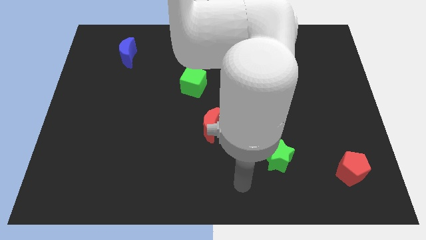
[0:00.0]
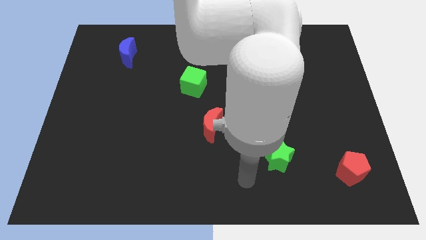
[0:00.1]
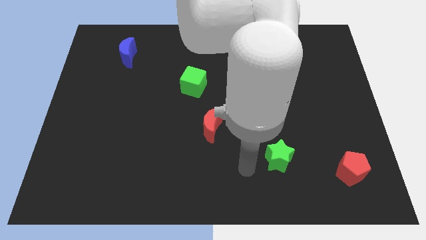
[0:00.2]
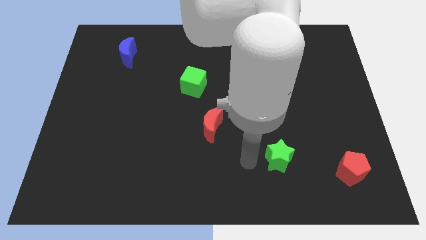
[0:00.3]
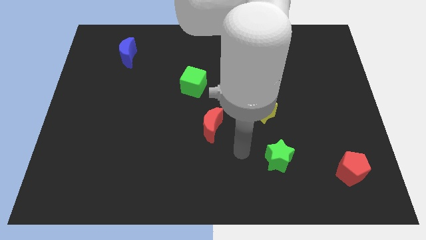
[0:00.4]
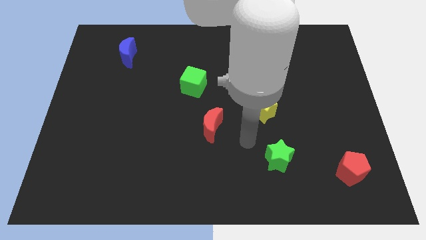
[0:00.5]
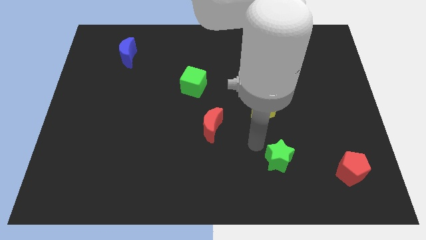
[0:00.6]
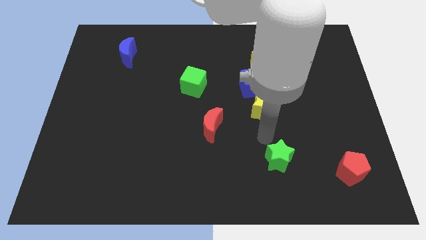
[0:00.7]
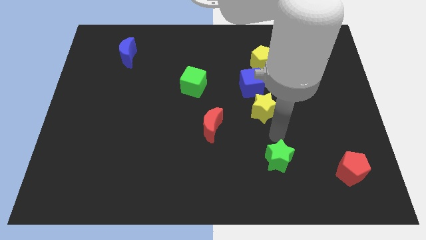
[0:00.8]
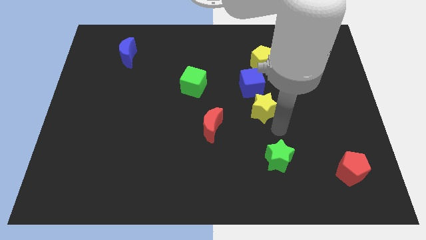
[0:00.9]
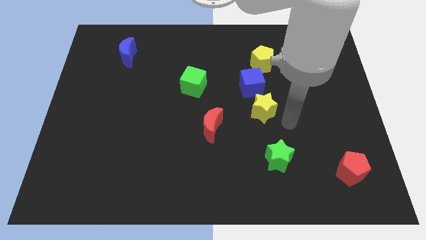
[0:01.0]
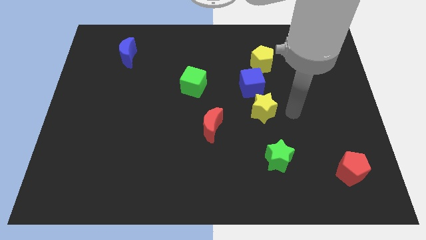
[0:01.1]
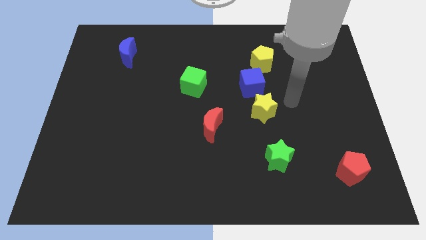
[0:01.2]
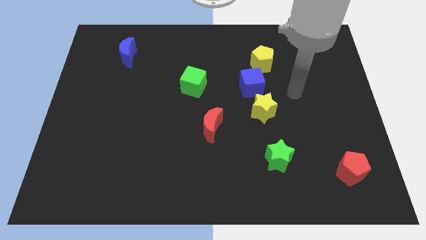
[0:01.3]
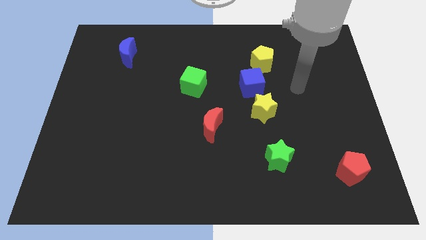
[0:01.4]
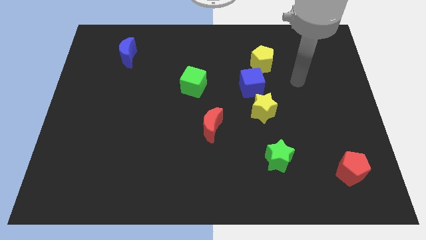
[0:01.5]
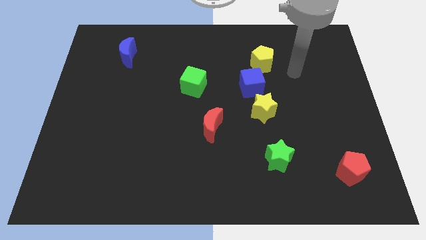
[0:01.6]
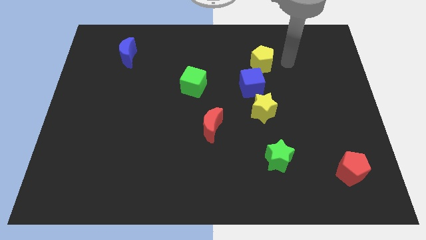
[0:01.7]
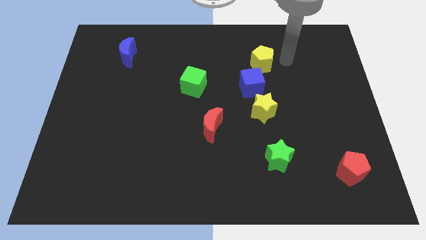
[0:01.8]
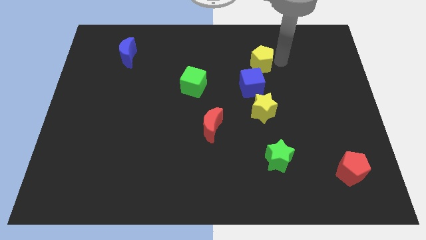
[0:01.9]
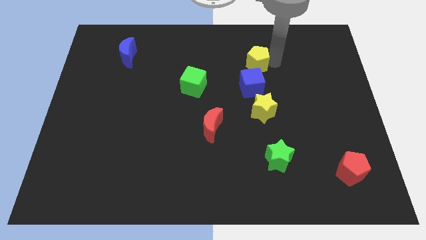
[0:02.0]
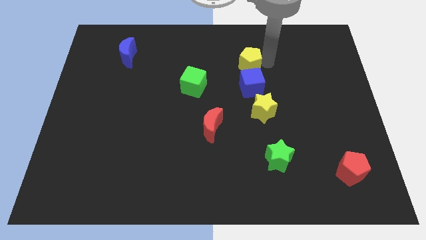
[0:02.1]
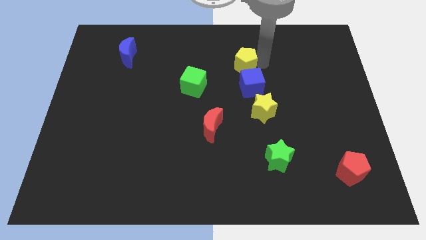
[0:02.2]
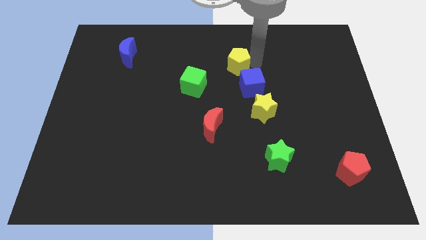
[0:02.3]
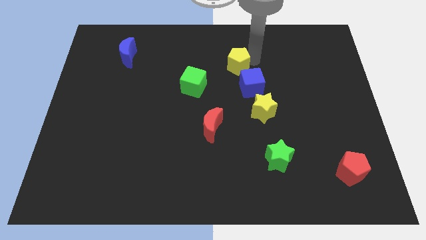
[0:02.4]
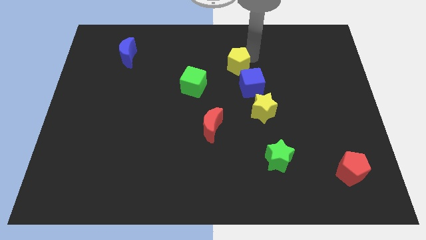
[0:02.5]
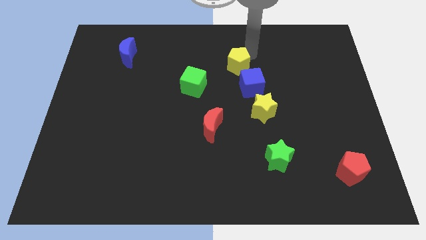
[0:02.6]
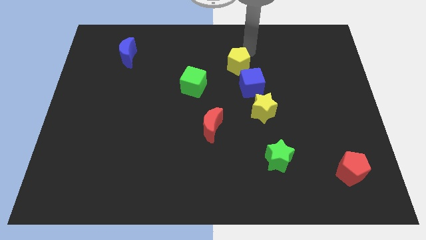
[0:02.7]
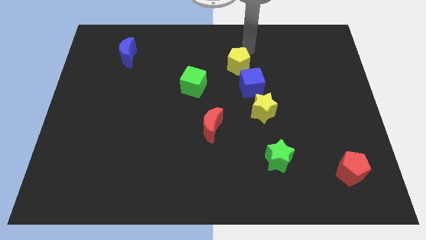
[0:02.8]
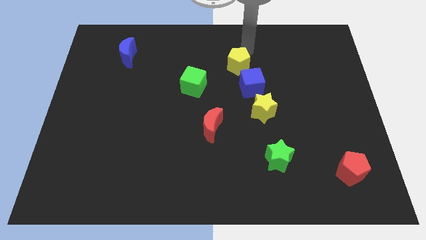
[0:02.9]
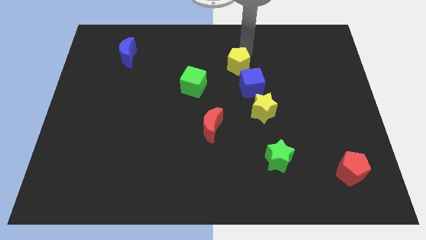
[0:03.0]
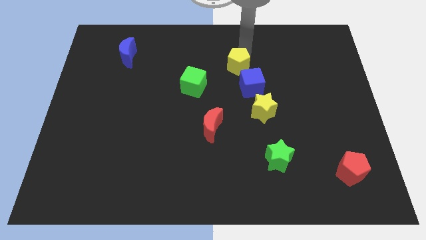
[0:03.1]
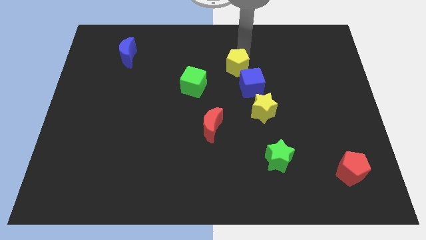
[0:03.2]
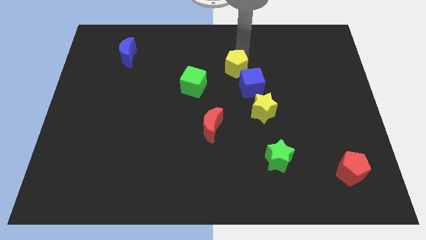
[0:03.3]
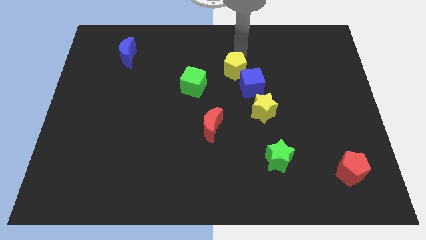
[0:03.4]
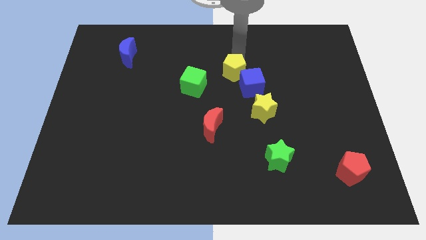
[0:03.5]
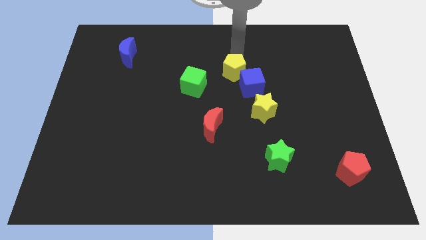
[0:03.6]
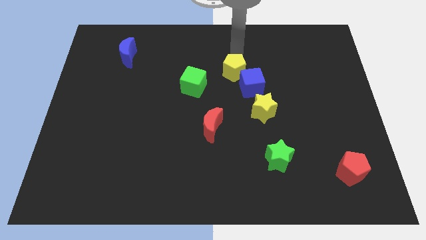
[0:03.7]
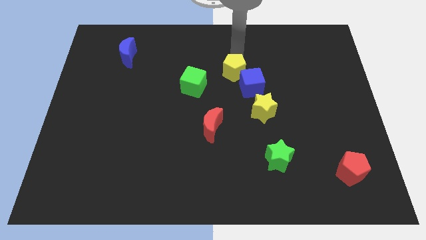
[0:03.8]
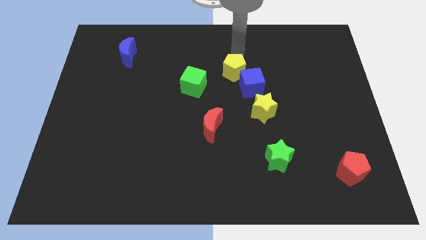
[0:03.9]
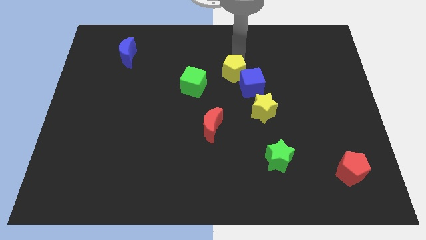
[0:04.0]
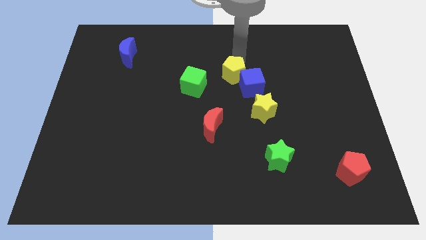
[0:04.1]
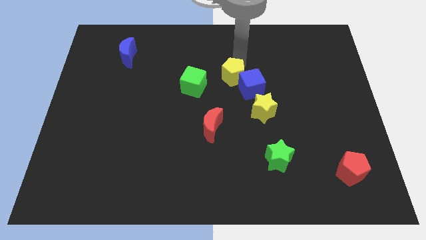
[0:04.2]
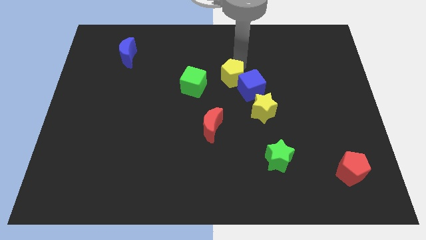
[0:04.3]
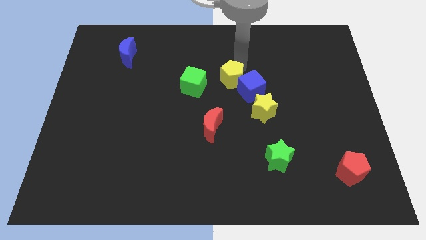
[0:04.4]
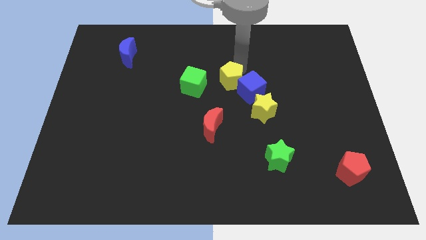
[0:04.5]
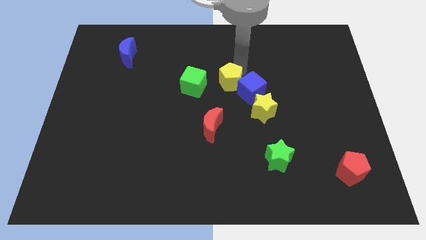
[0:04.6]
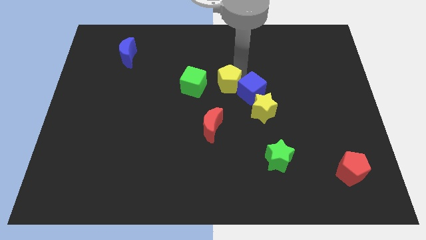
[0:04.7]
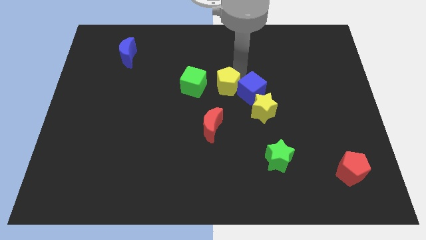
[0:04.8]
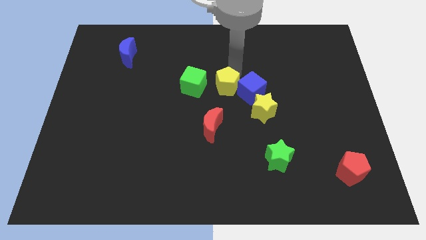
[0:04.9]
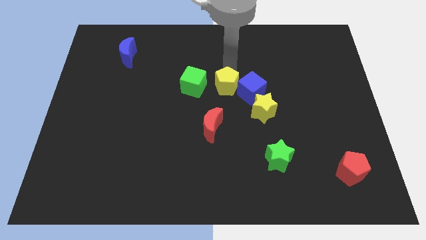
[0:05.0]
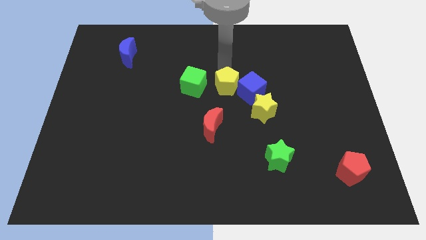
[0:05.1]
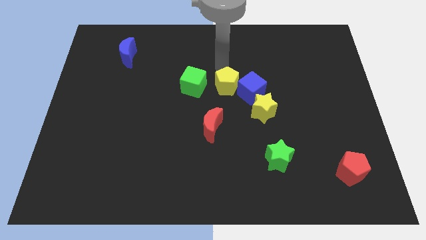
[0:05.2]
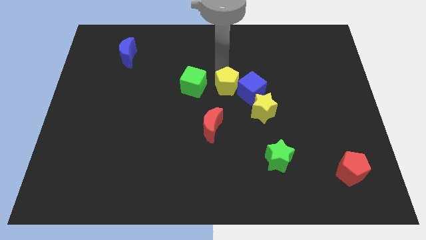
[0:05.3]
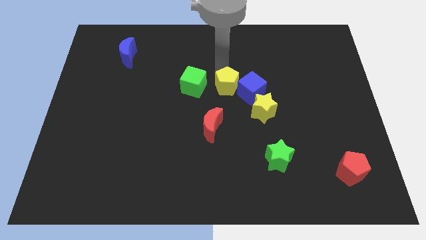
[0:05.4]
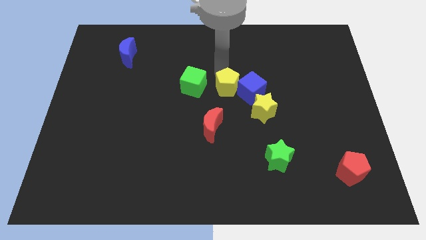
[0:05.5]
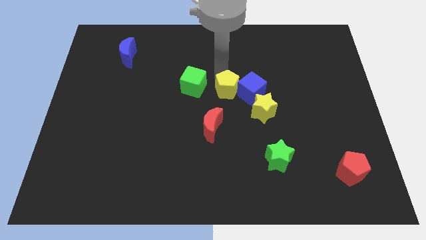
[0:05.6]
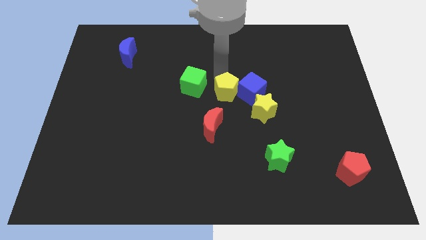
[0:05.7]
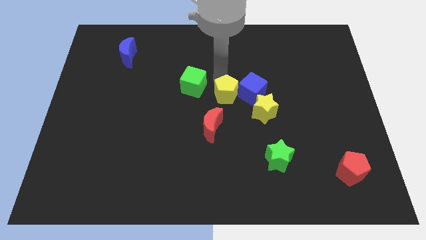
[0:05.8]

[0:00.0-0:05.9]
put the yellow pentagon diagonally up and to the right of the red moon
